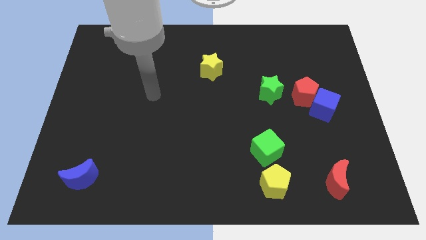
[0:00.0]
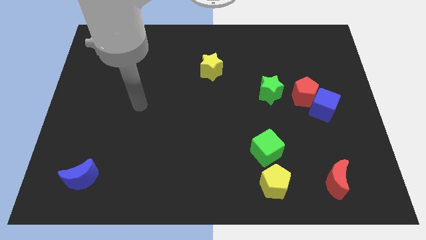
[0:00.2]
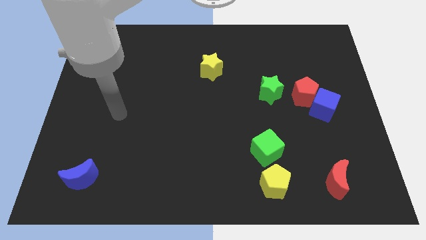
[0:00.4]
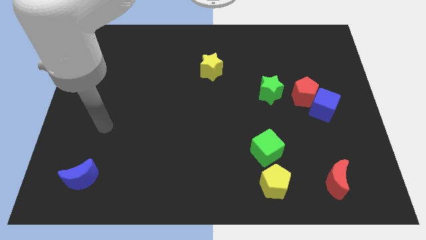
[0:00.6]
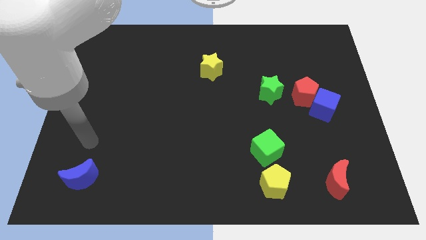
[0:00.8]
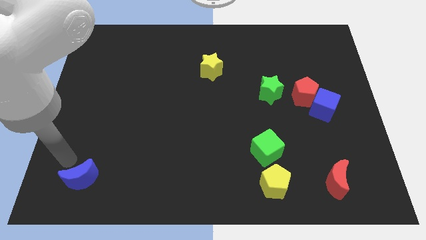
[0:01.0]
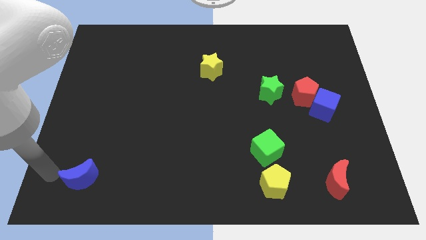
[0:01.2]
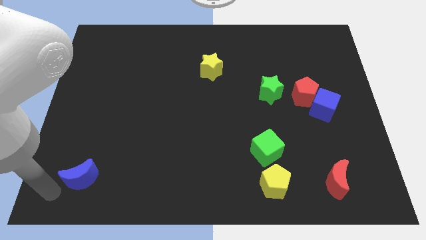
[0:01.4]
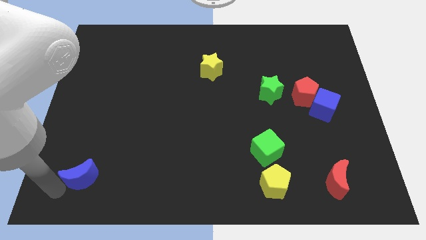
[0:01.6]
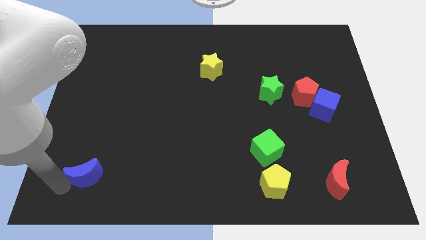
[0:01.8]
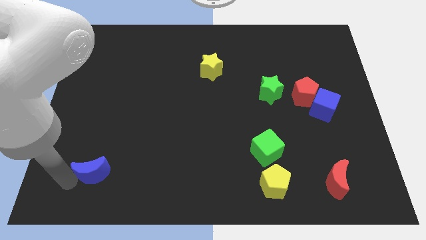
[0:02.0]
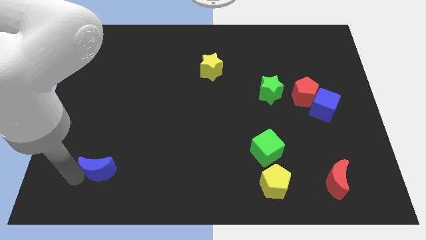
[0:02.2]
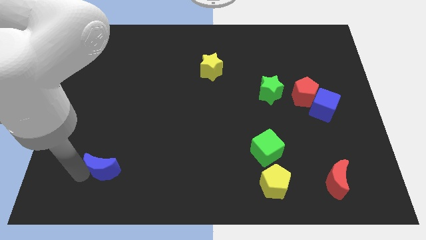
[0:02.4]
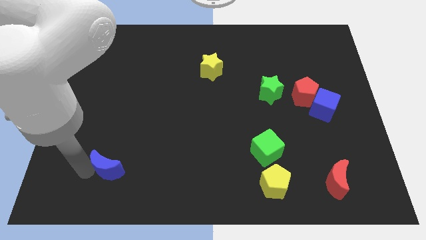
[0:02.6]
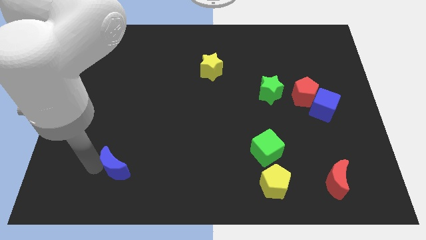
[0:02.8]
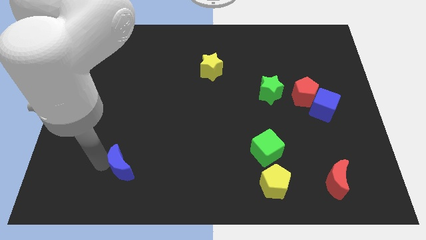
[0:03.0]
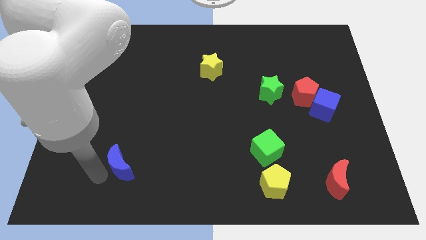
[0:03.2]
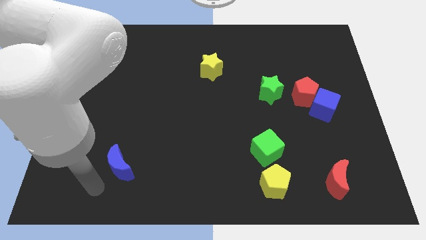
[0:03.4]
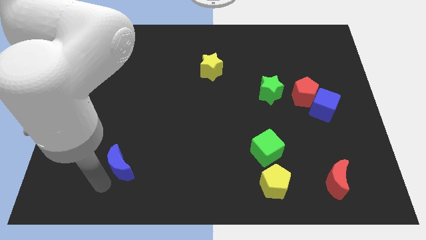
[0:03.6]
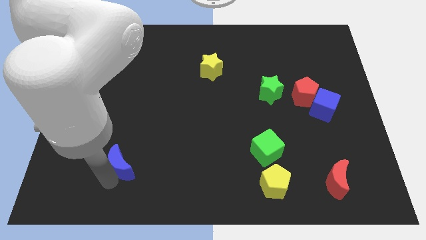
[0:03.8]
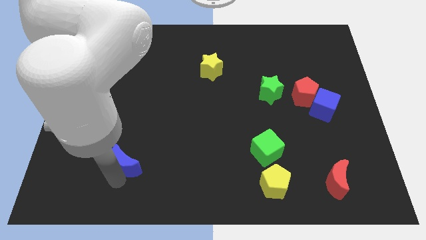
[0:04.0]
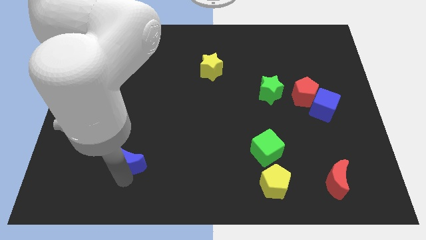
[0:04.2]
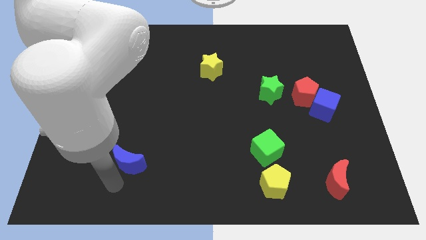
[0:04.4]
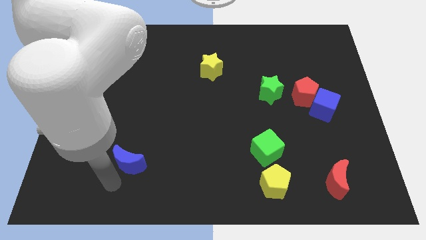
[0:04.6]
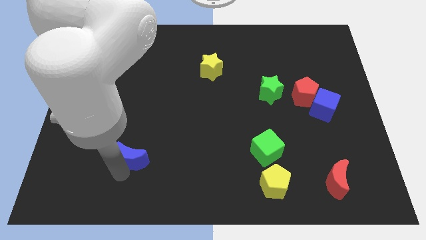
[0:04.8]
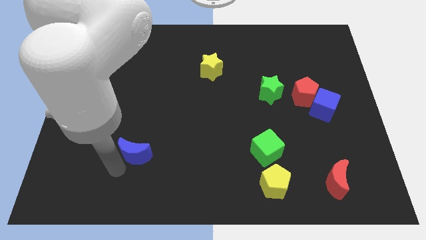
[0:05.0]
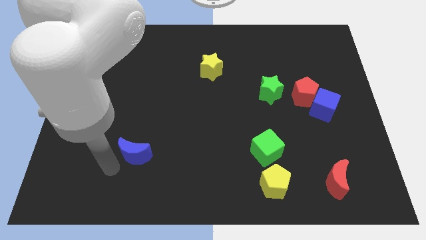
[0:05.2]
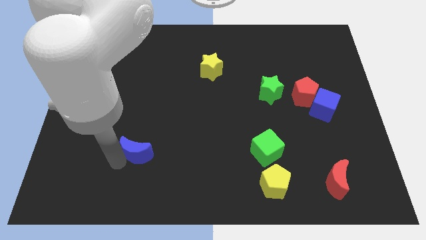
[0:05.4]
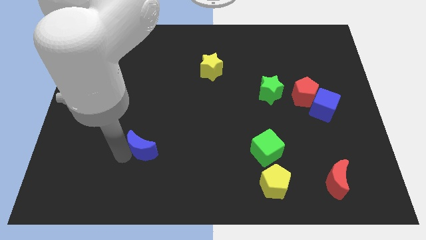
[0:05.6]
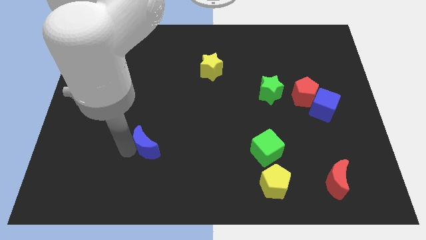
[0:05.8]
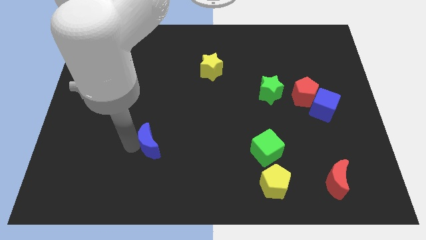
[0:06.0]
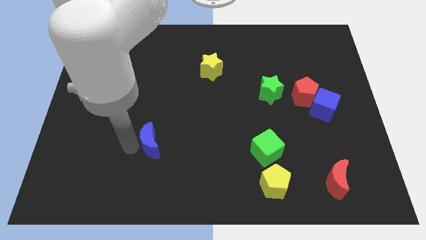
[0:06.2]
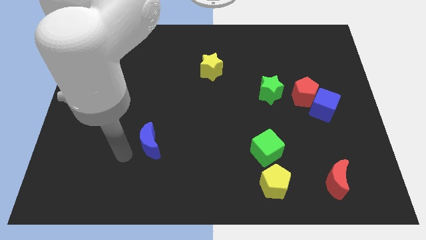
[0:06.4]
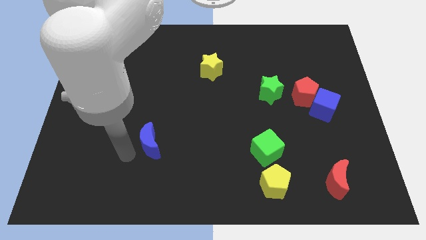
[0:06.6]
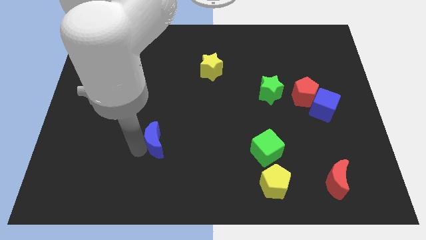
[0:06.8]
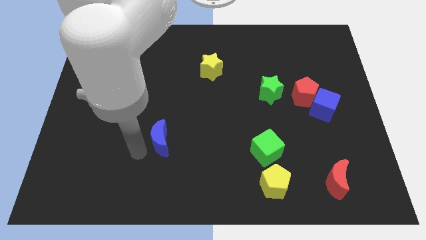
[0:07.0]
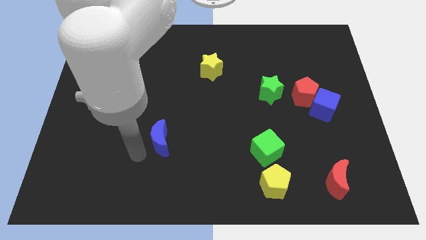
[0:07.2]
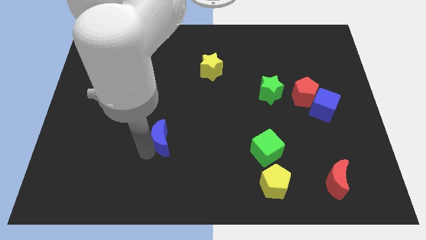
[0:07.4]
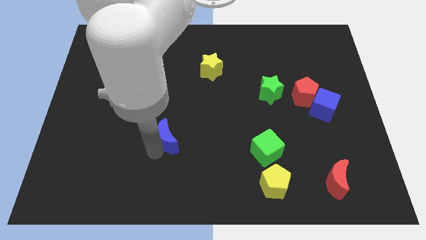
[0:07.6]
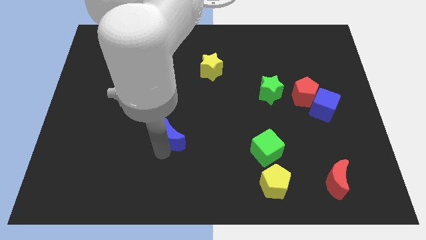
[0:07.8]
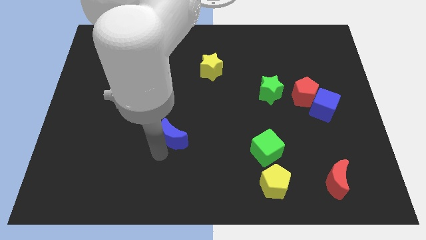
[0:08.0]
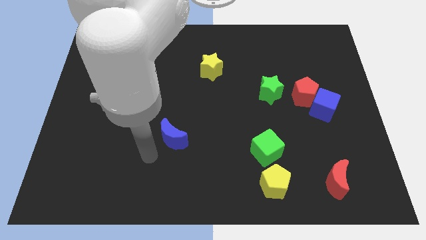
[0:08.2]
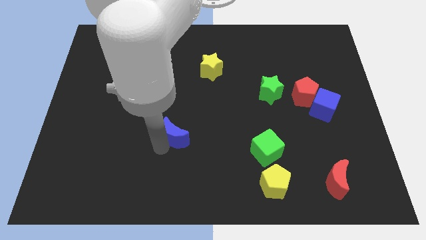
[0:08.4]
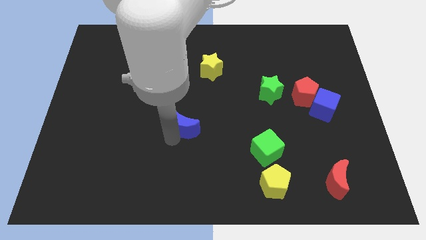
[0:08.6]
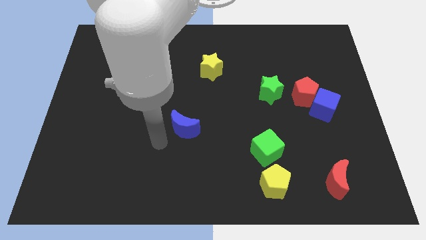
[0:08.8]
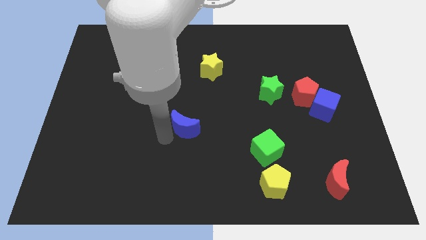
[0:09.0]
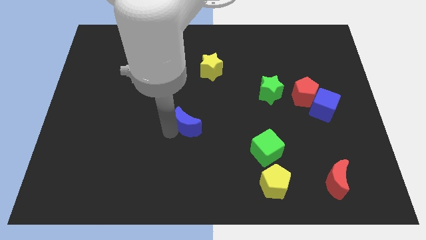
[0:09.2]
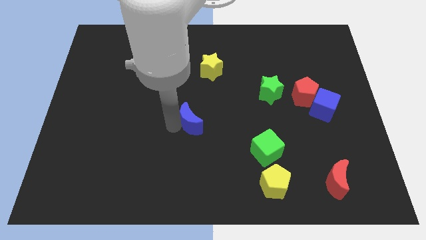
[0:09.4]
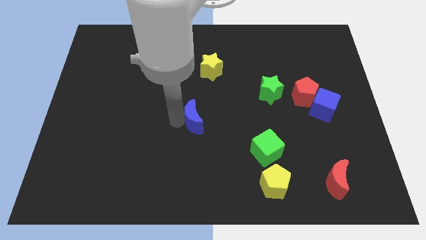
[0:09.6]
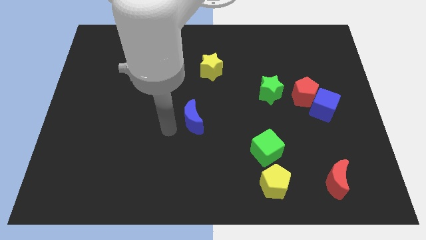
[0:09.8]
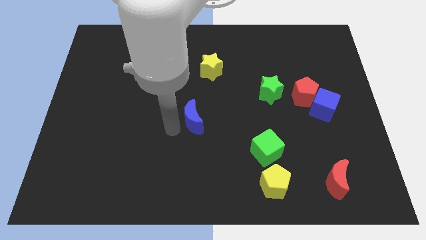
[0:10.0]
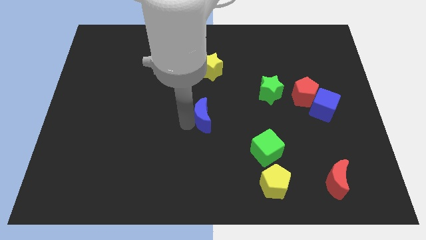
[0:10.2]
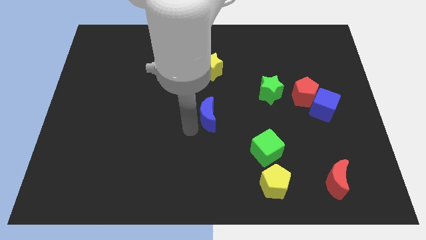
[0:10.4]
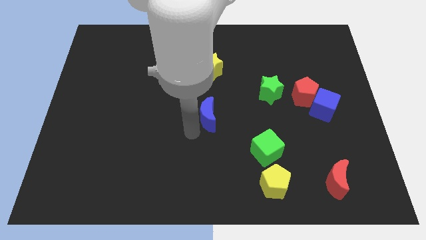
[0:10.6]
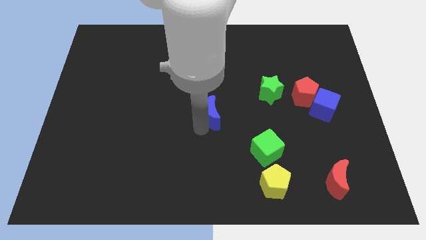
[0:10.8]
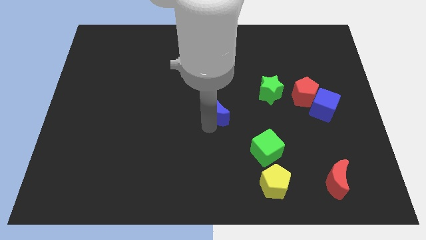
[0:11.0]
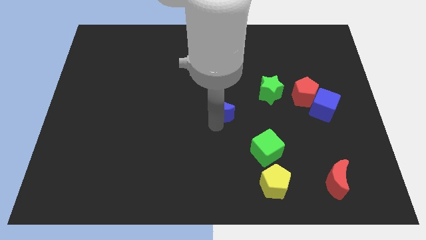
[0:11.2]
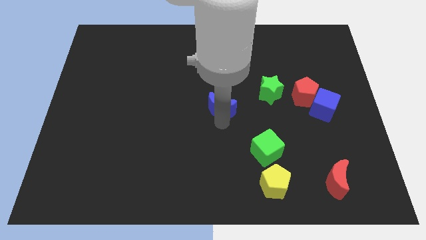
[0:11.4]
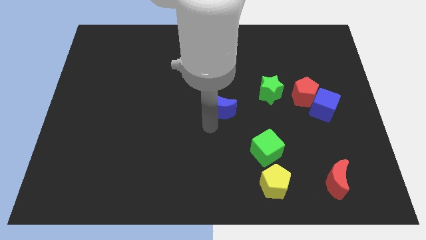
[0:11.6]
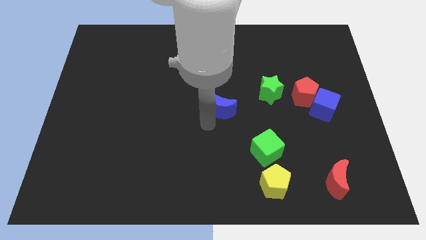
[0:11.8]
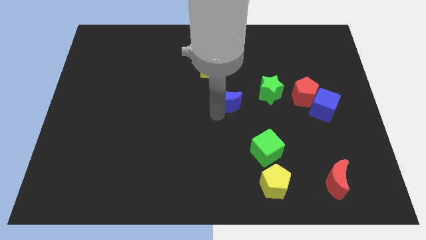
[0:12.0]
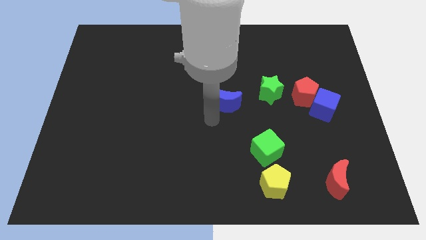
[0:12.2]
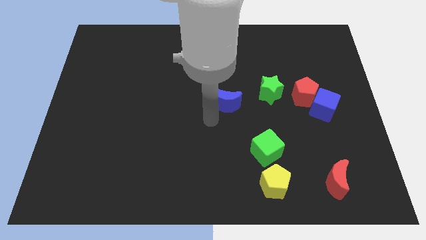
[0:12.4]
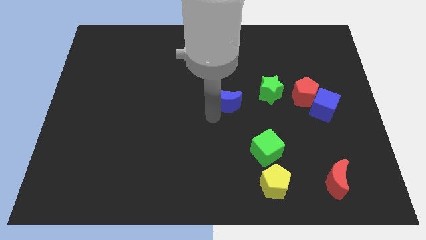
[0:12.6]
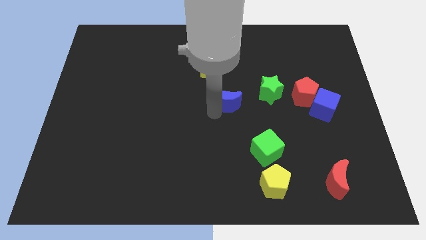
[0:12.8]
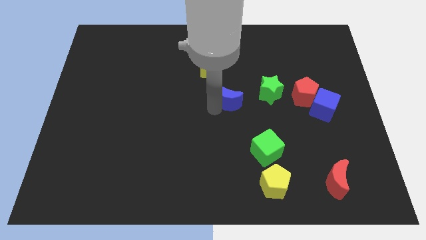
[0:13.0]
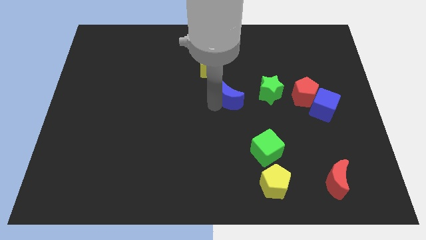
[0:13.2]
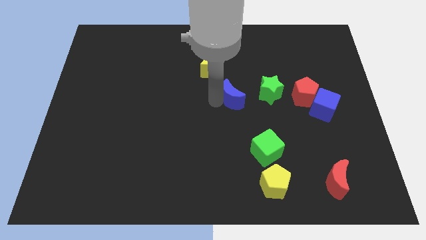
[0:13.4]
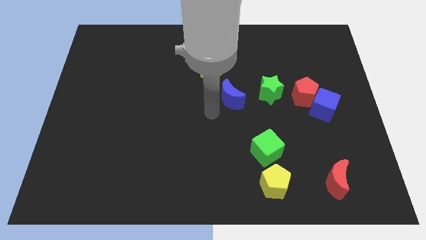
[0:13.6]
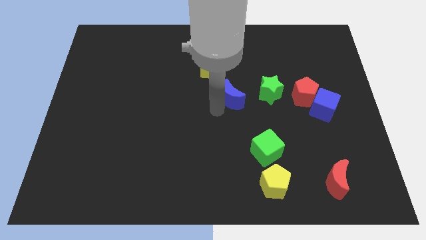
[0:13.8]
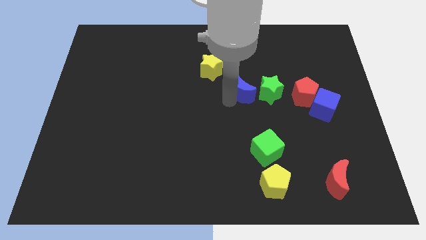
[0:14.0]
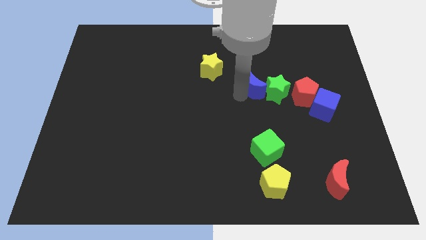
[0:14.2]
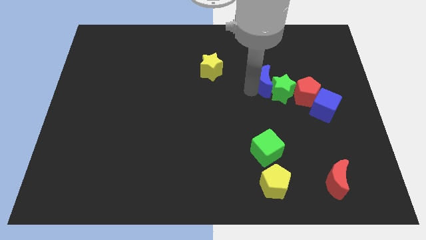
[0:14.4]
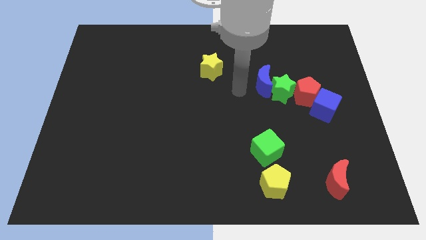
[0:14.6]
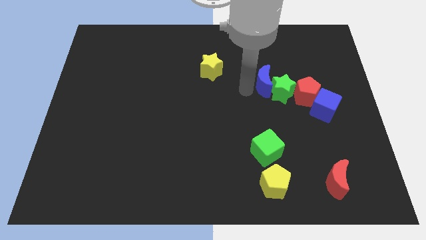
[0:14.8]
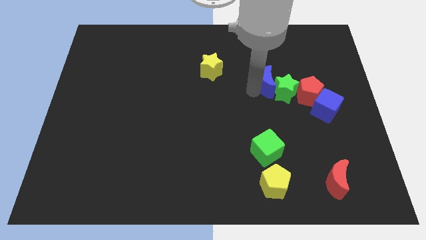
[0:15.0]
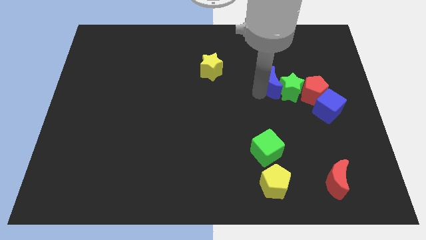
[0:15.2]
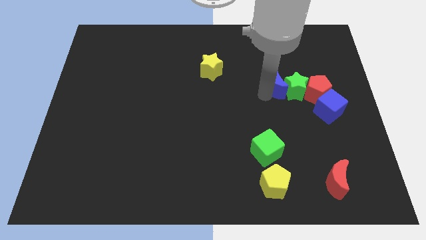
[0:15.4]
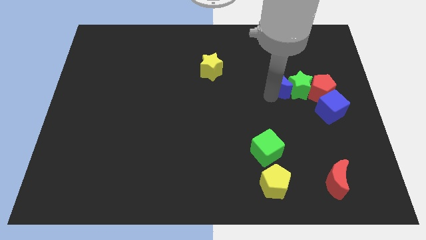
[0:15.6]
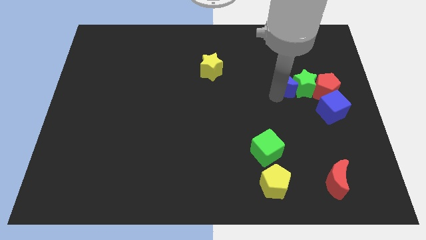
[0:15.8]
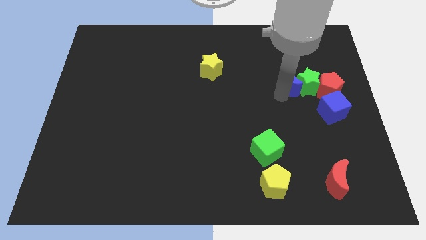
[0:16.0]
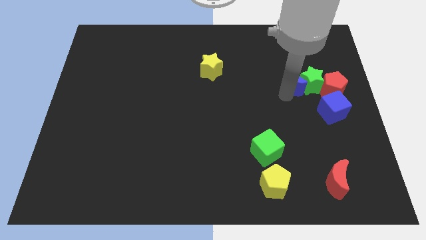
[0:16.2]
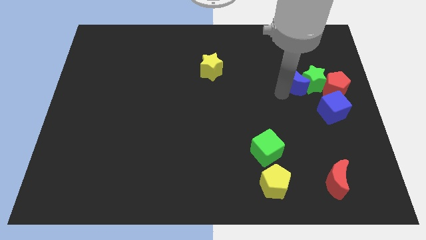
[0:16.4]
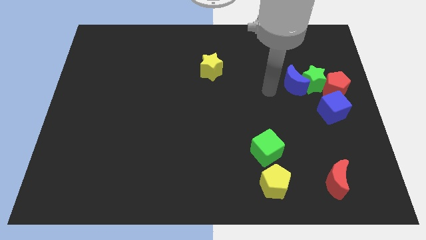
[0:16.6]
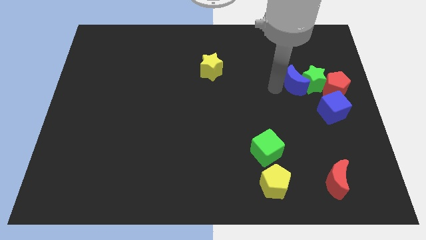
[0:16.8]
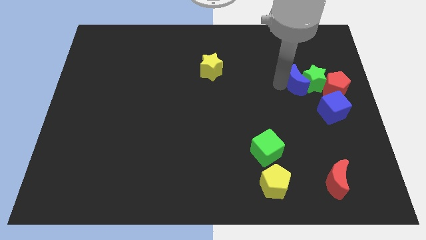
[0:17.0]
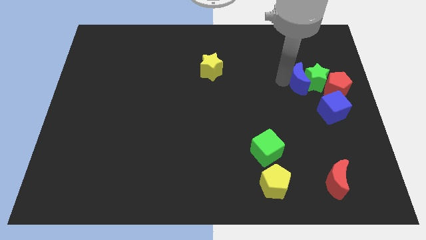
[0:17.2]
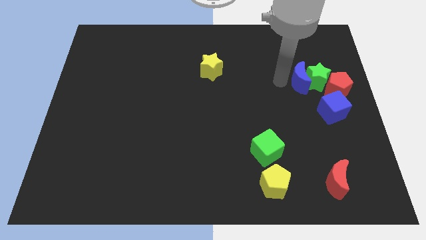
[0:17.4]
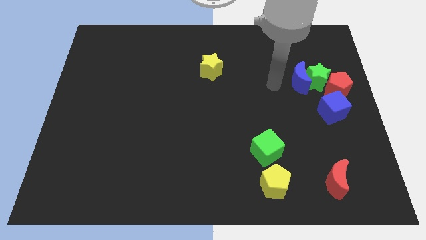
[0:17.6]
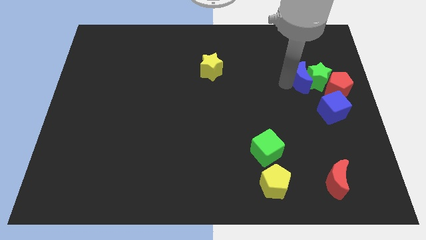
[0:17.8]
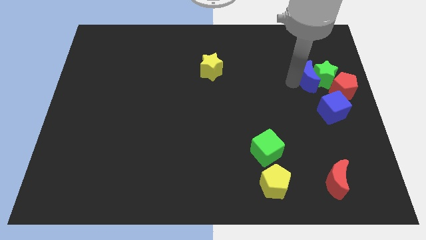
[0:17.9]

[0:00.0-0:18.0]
put the blue moon above the blue cube
